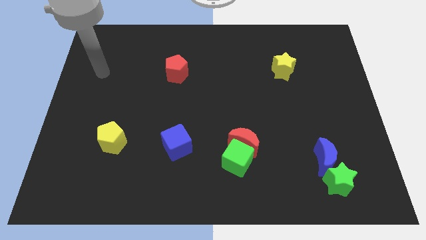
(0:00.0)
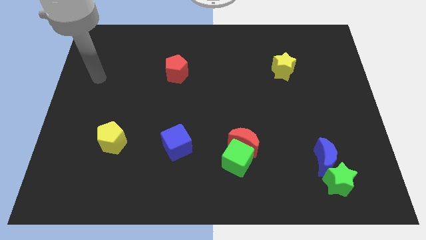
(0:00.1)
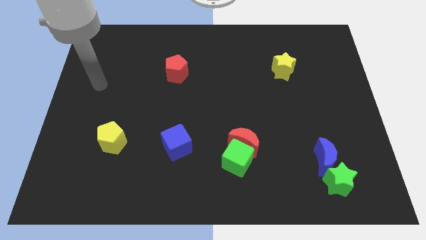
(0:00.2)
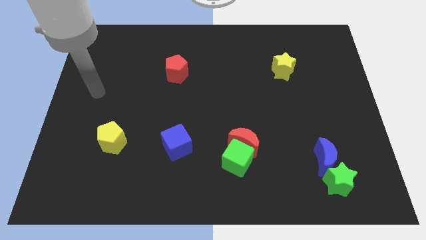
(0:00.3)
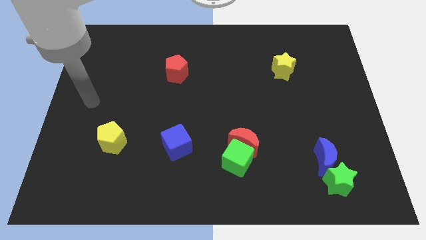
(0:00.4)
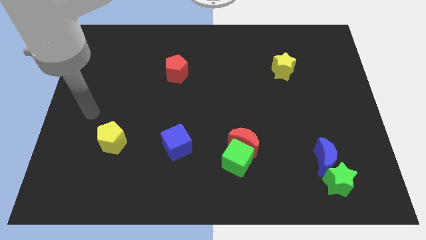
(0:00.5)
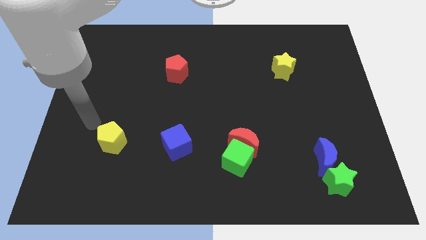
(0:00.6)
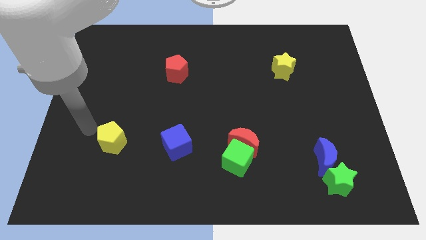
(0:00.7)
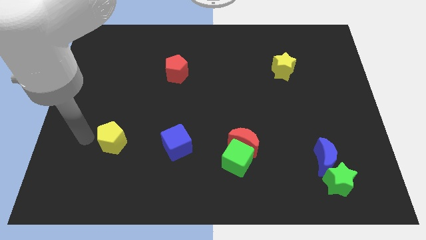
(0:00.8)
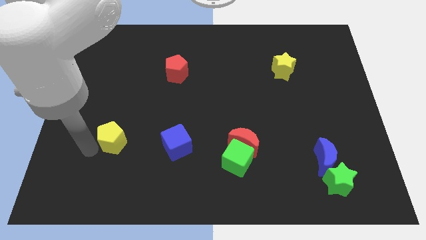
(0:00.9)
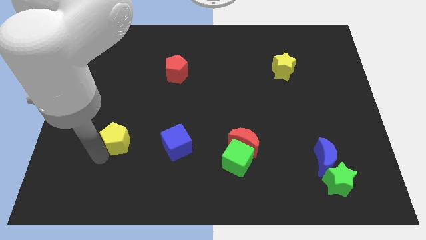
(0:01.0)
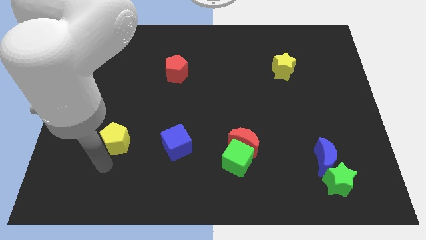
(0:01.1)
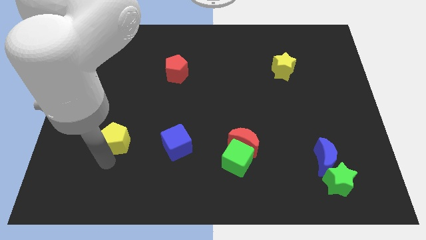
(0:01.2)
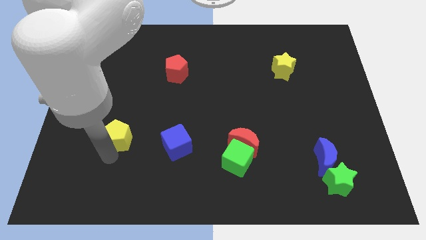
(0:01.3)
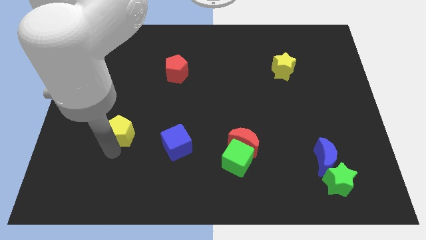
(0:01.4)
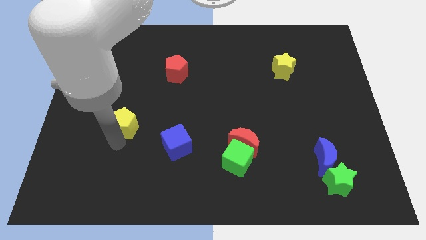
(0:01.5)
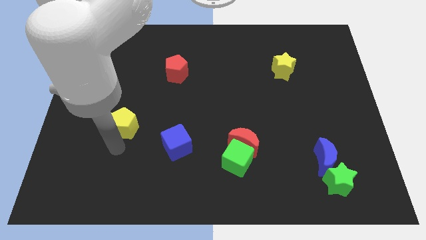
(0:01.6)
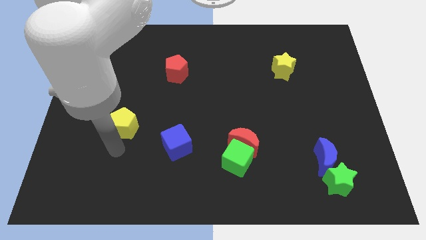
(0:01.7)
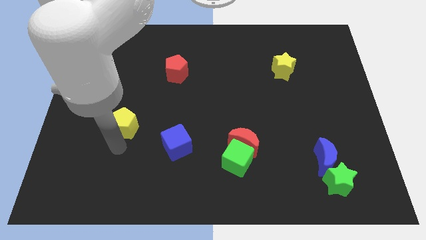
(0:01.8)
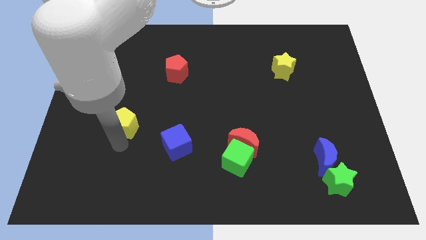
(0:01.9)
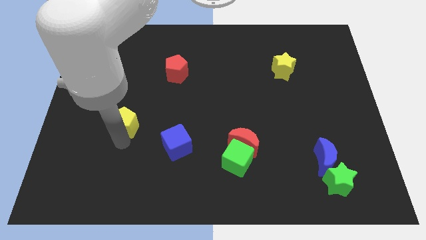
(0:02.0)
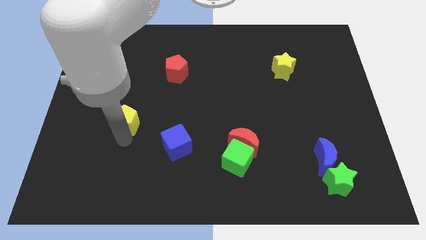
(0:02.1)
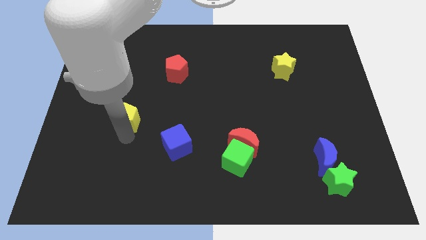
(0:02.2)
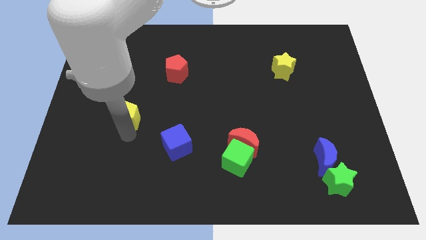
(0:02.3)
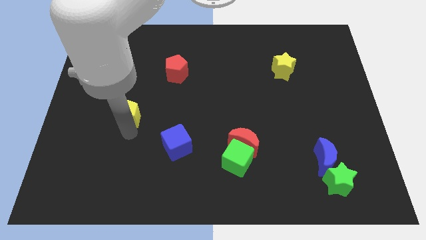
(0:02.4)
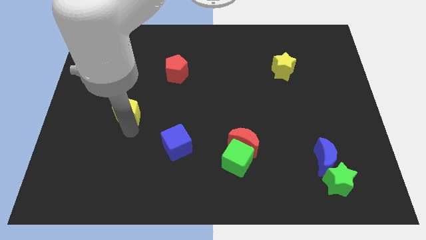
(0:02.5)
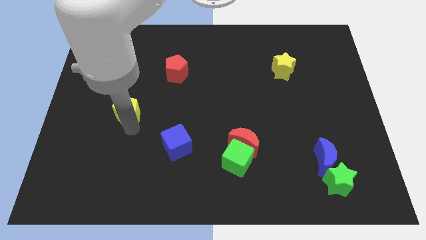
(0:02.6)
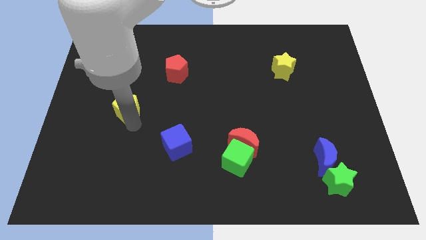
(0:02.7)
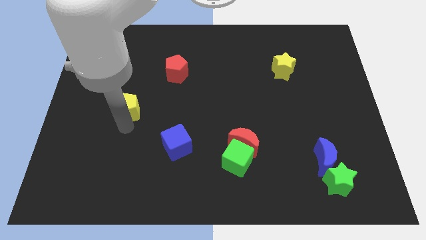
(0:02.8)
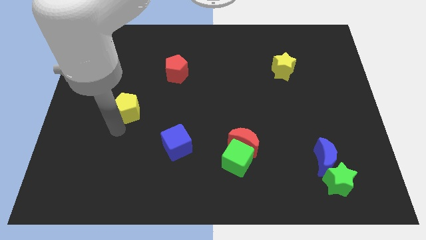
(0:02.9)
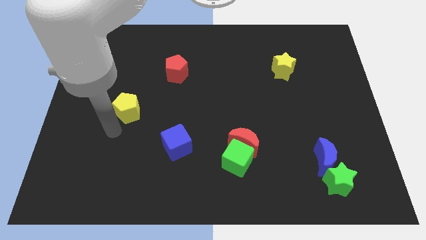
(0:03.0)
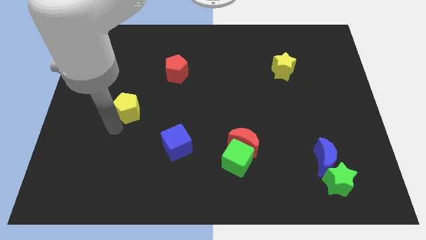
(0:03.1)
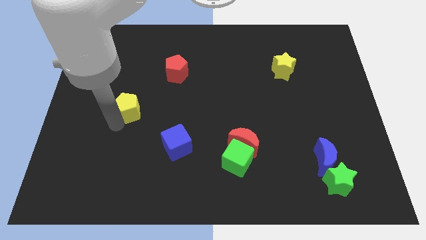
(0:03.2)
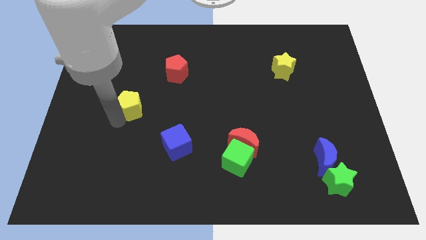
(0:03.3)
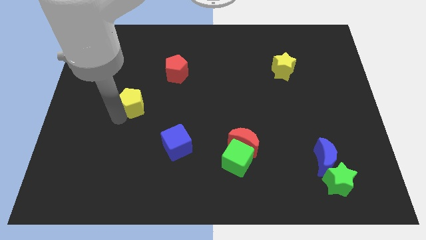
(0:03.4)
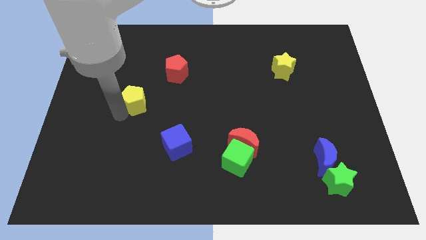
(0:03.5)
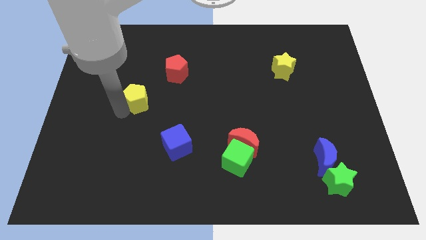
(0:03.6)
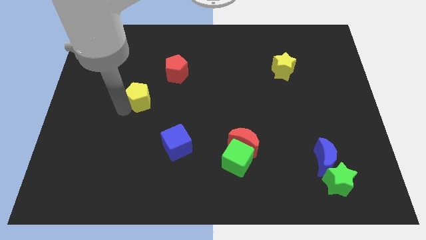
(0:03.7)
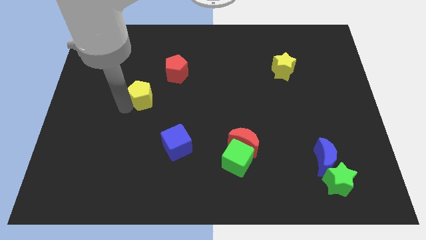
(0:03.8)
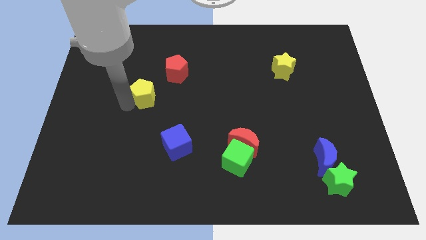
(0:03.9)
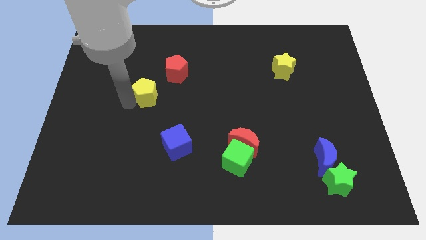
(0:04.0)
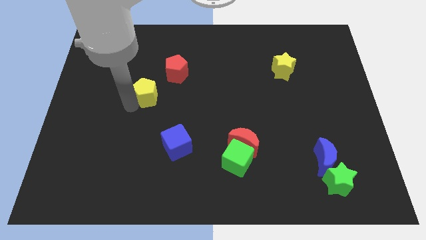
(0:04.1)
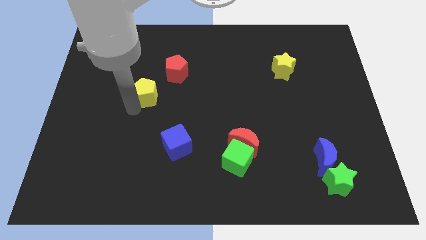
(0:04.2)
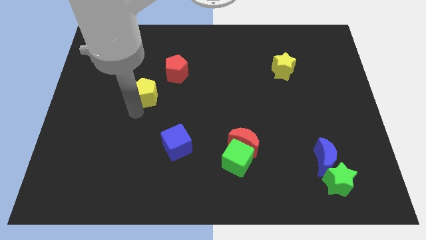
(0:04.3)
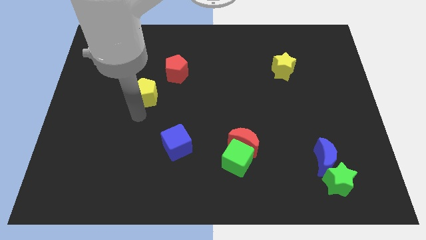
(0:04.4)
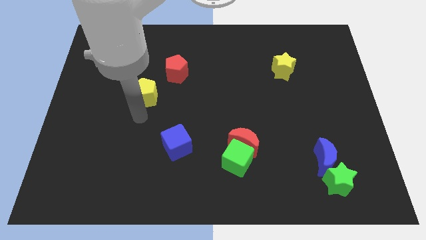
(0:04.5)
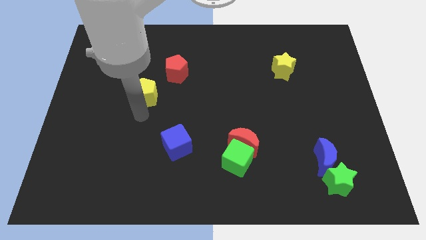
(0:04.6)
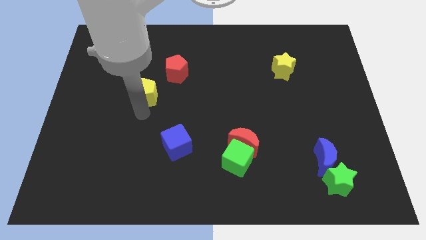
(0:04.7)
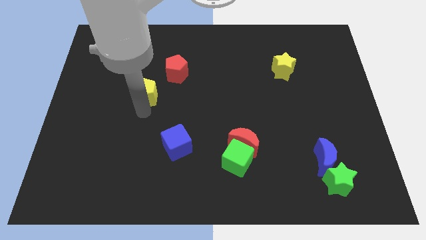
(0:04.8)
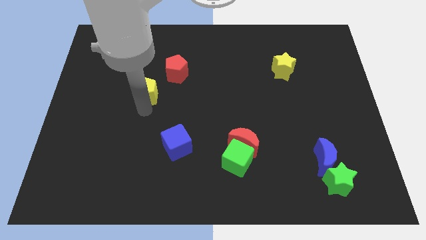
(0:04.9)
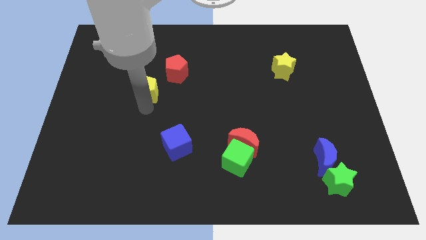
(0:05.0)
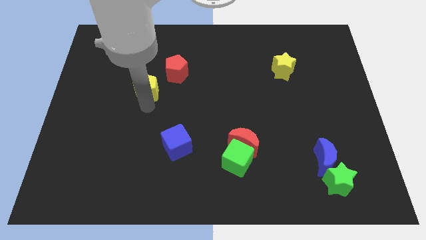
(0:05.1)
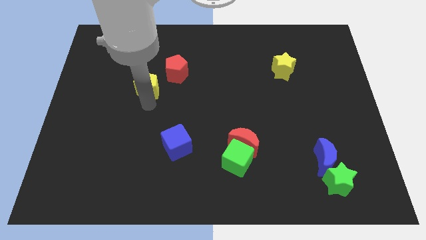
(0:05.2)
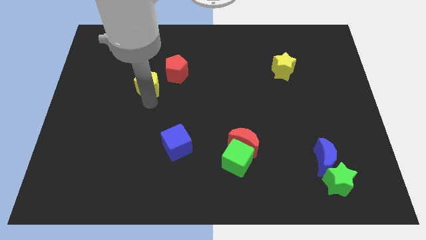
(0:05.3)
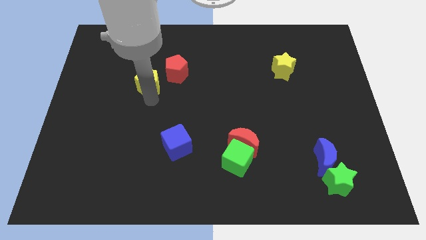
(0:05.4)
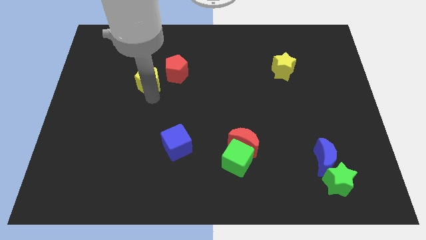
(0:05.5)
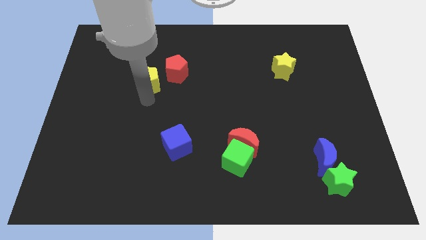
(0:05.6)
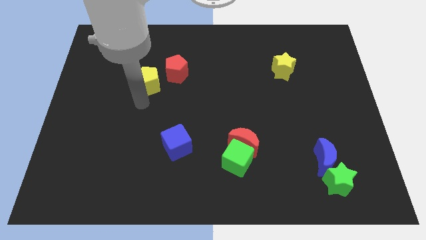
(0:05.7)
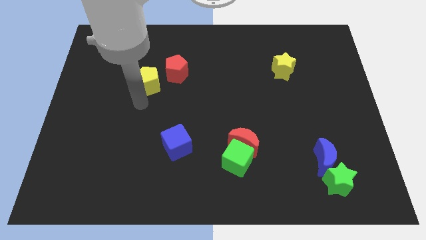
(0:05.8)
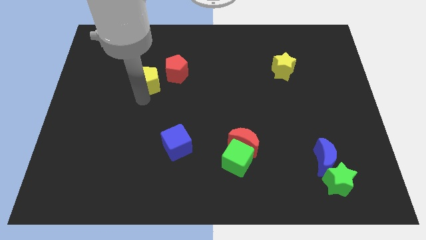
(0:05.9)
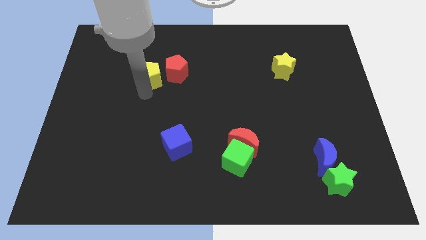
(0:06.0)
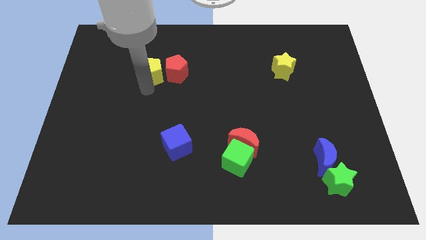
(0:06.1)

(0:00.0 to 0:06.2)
put the yellow pentagon to the top left side of the red pentagon

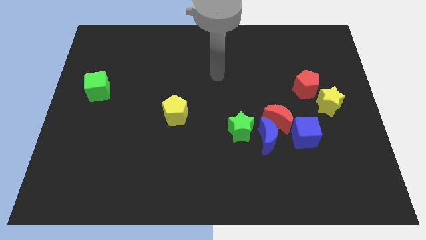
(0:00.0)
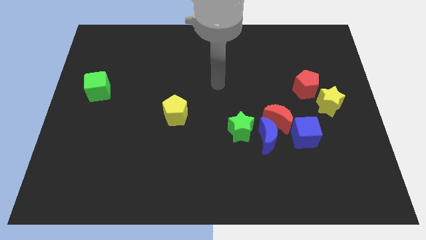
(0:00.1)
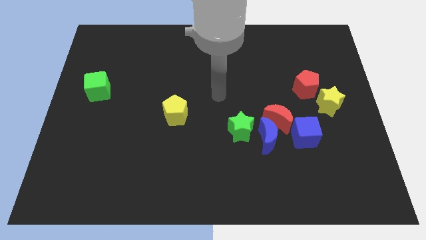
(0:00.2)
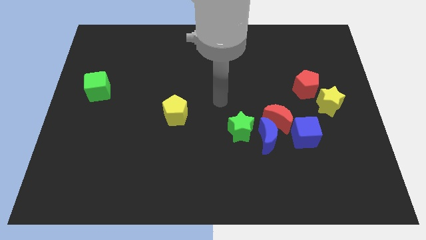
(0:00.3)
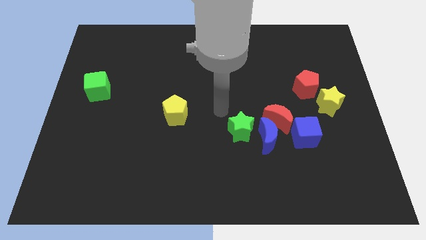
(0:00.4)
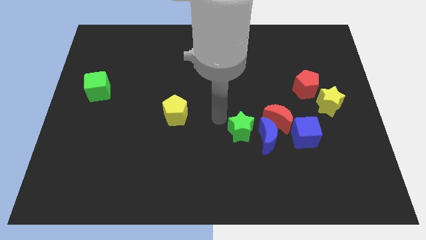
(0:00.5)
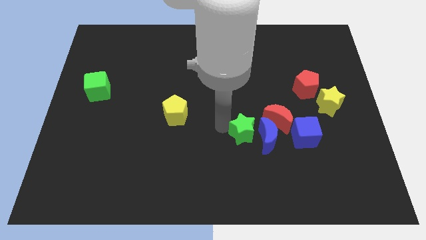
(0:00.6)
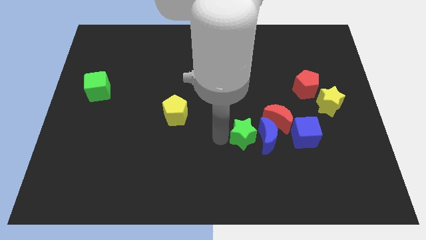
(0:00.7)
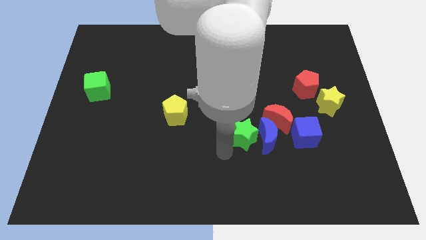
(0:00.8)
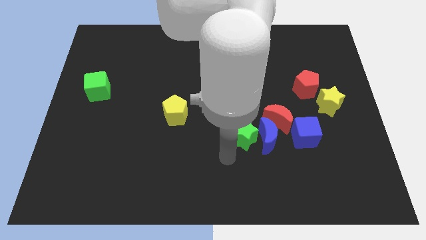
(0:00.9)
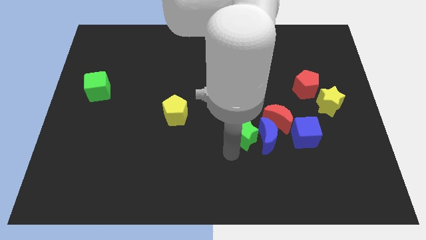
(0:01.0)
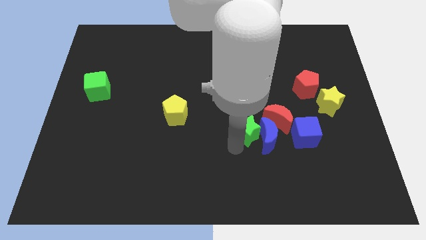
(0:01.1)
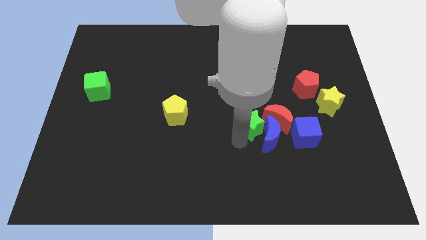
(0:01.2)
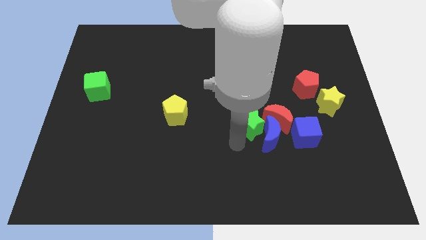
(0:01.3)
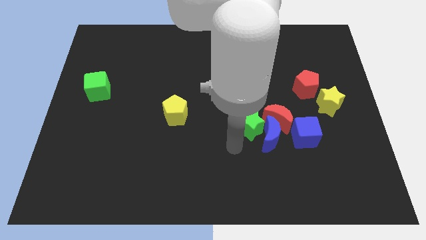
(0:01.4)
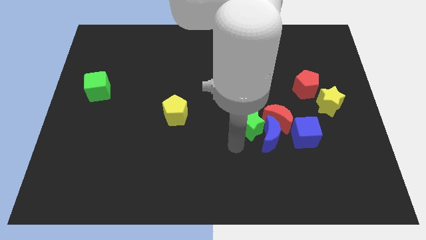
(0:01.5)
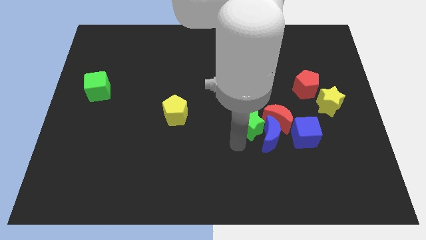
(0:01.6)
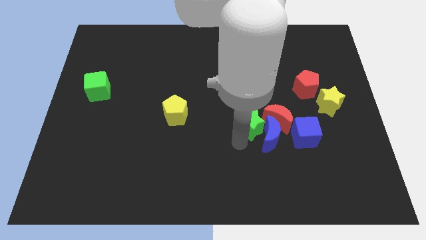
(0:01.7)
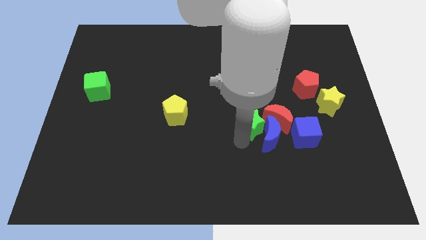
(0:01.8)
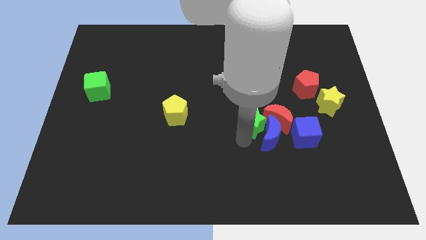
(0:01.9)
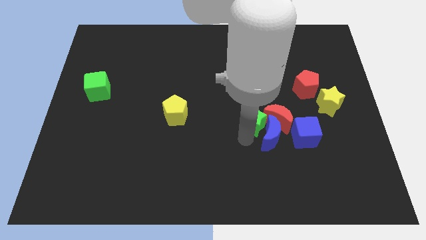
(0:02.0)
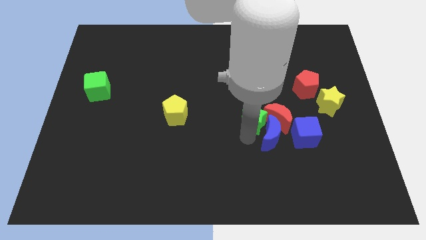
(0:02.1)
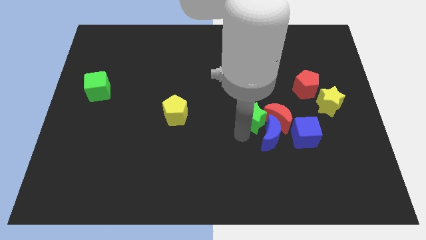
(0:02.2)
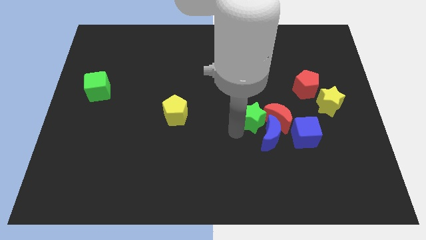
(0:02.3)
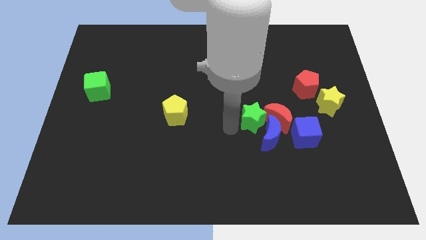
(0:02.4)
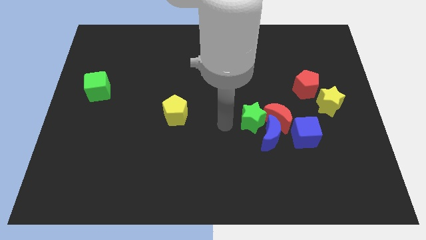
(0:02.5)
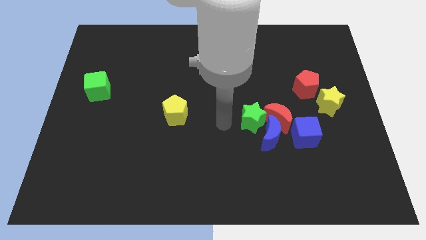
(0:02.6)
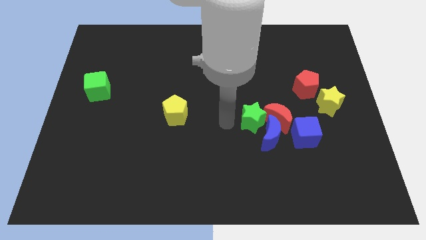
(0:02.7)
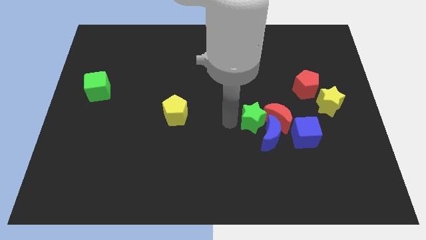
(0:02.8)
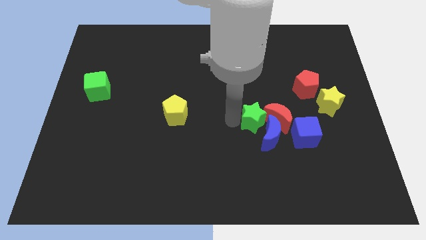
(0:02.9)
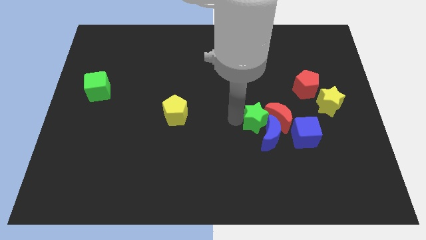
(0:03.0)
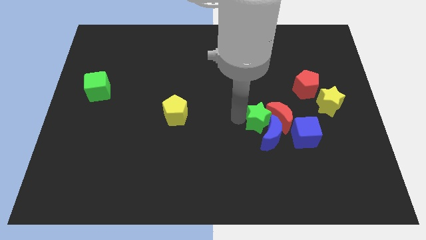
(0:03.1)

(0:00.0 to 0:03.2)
slide the green star to the top left of the blue cube
